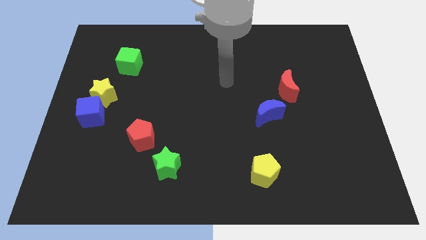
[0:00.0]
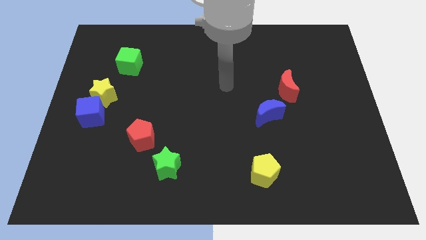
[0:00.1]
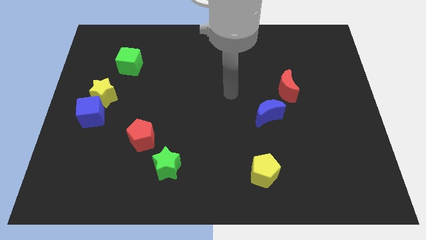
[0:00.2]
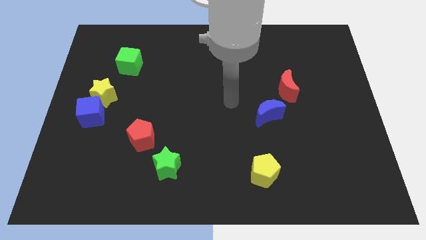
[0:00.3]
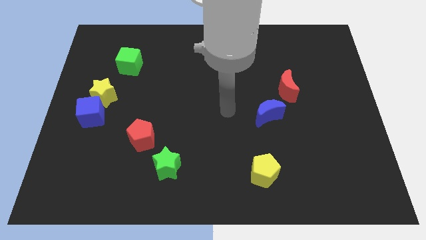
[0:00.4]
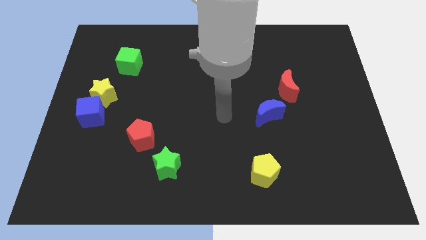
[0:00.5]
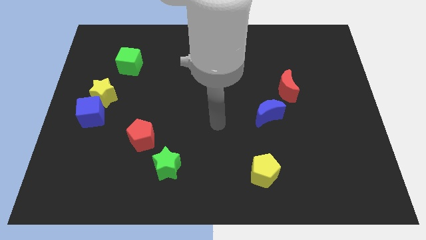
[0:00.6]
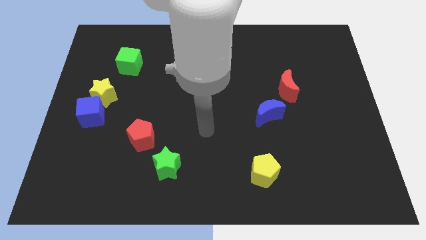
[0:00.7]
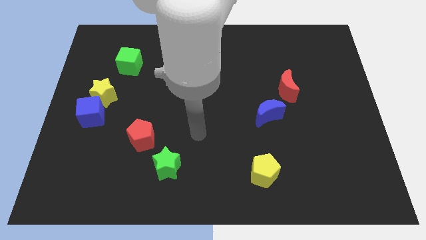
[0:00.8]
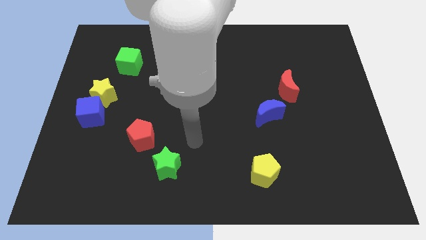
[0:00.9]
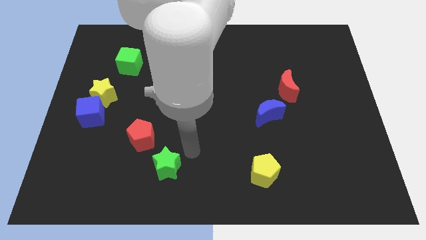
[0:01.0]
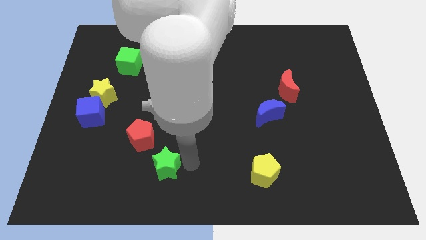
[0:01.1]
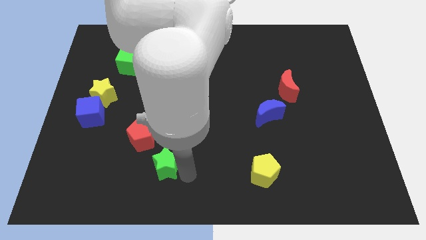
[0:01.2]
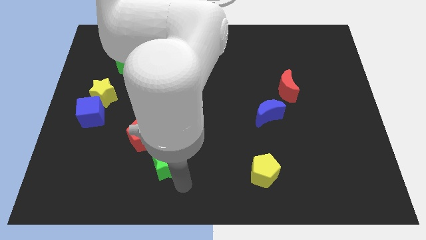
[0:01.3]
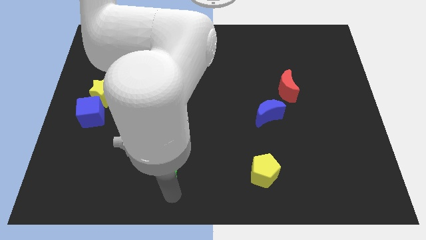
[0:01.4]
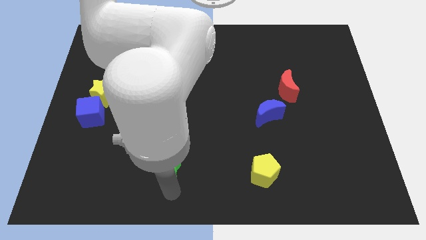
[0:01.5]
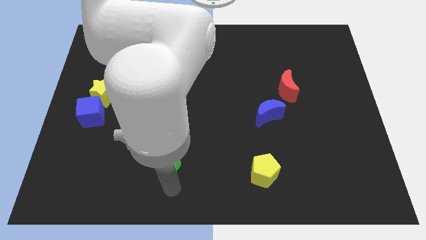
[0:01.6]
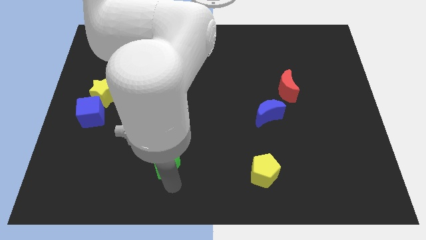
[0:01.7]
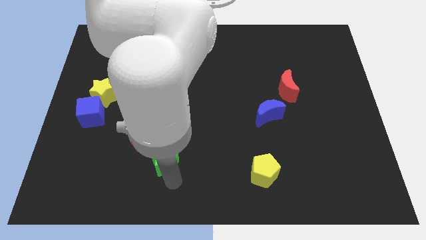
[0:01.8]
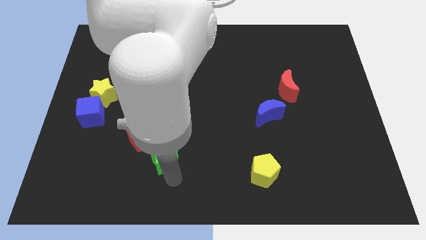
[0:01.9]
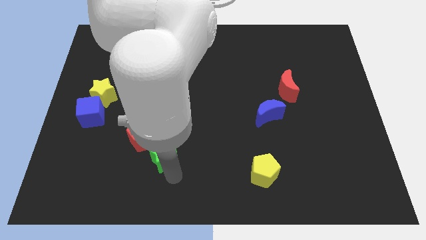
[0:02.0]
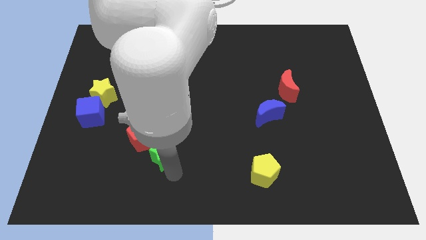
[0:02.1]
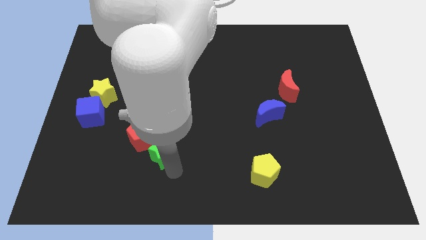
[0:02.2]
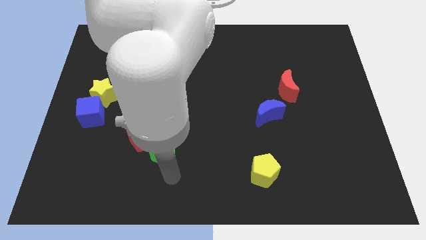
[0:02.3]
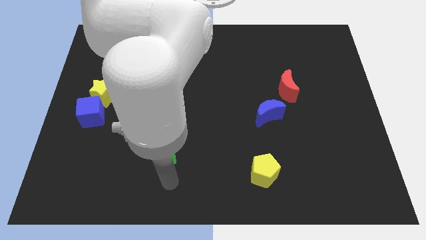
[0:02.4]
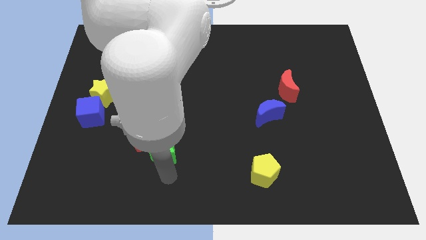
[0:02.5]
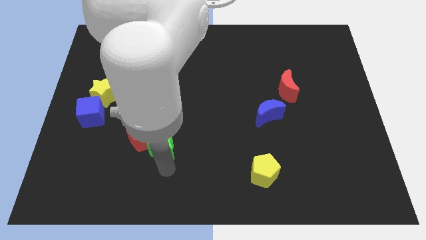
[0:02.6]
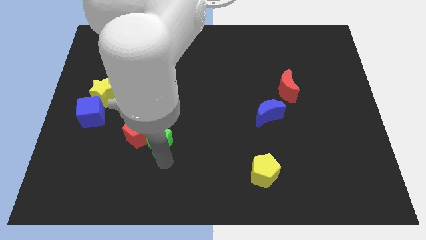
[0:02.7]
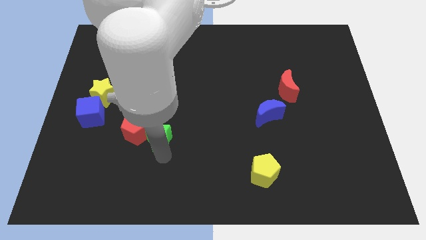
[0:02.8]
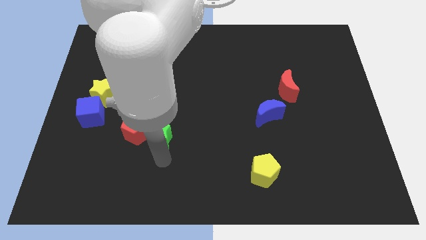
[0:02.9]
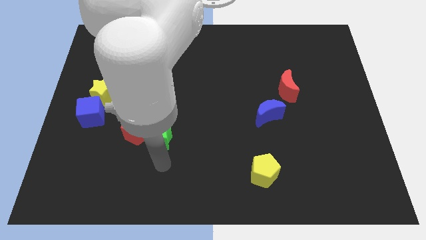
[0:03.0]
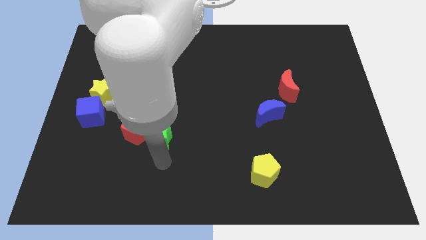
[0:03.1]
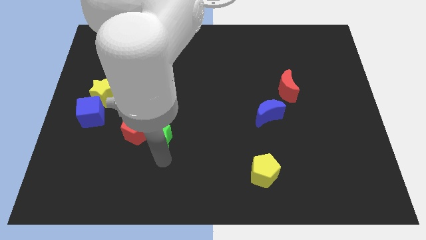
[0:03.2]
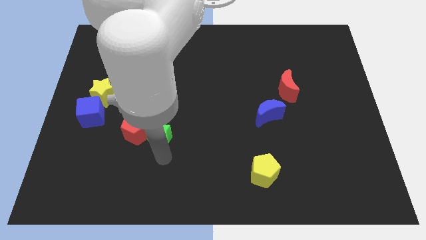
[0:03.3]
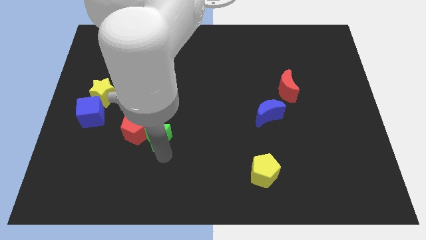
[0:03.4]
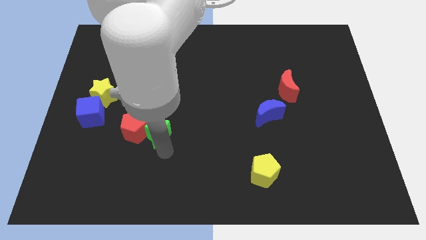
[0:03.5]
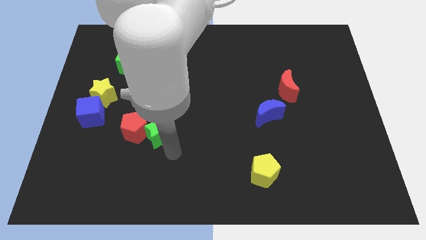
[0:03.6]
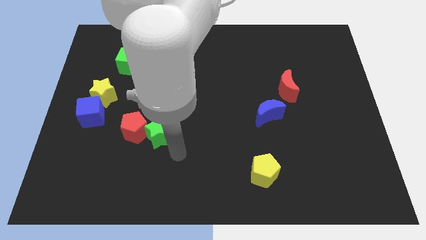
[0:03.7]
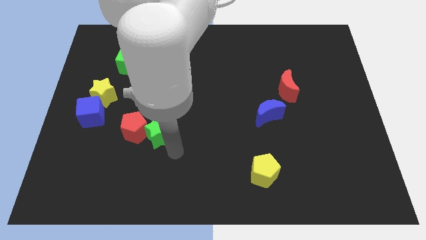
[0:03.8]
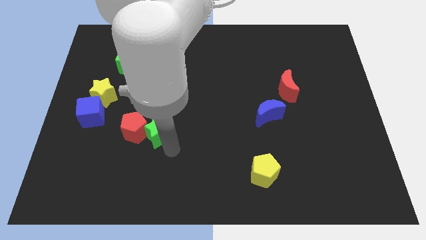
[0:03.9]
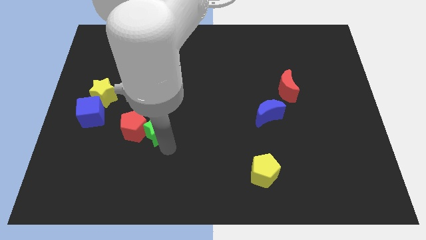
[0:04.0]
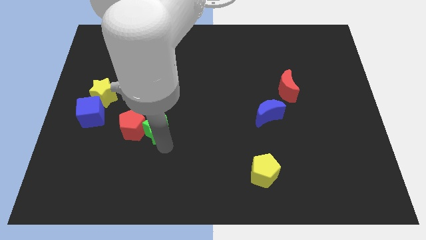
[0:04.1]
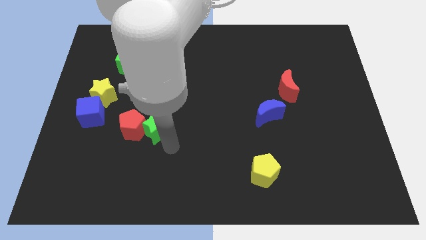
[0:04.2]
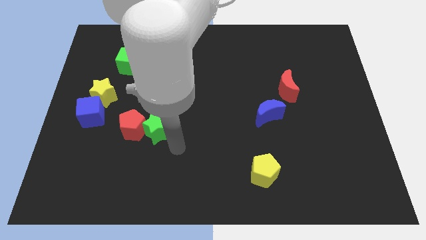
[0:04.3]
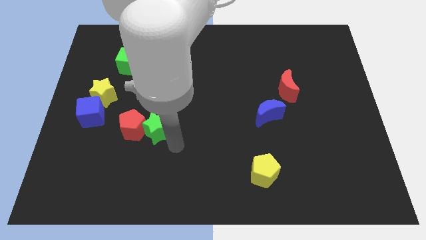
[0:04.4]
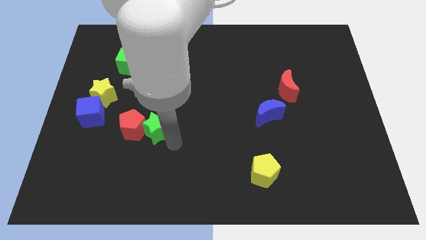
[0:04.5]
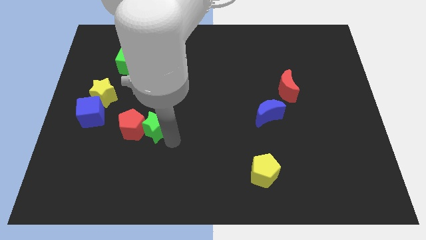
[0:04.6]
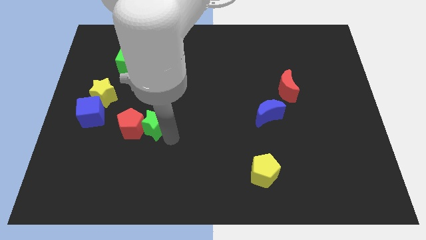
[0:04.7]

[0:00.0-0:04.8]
move the green star just right of the blue cube

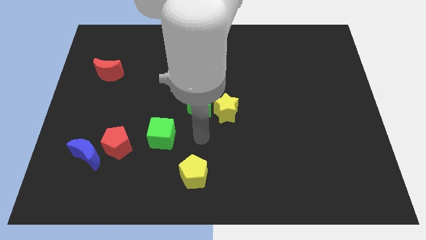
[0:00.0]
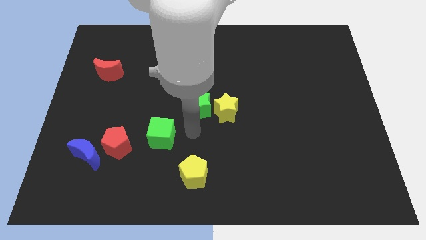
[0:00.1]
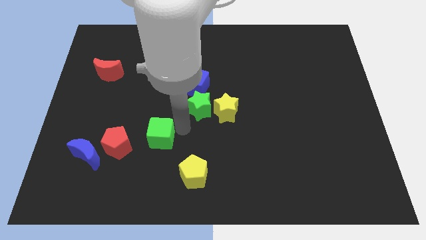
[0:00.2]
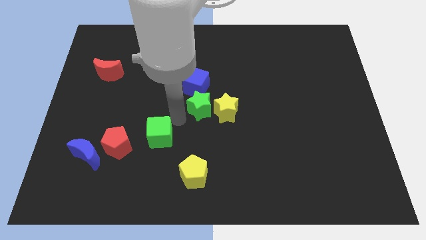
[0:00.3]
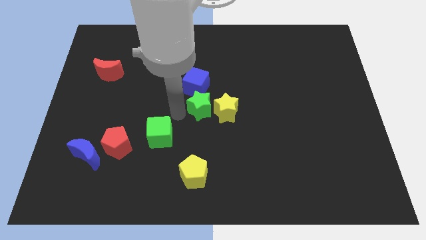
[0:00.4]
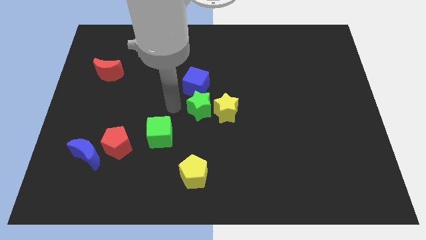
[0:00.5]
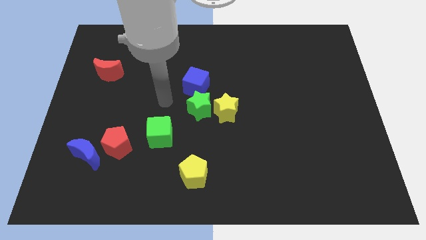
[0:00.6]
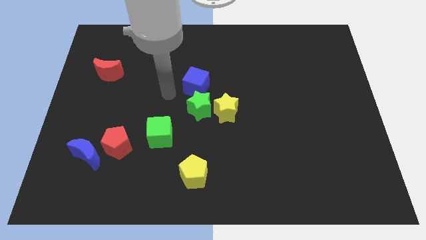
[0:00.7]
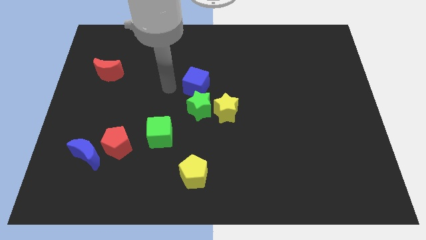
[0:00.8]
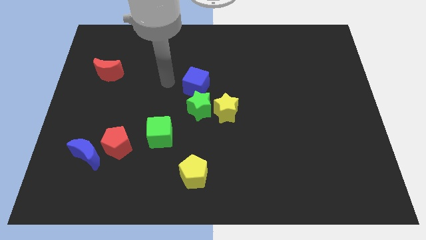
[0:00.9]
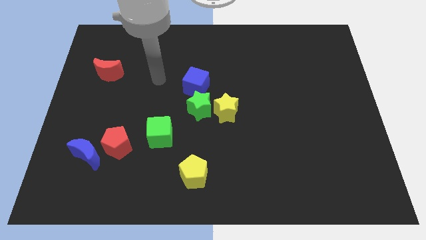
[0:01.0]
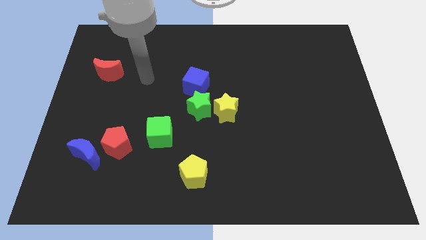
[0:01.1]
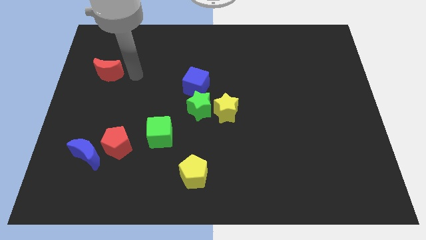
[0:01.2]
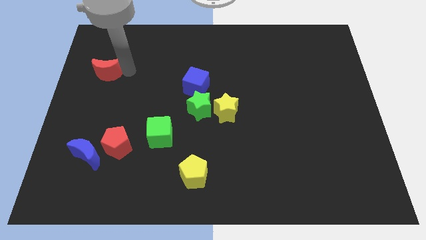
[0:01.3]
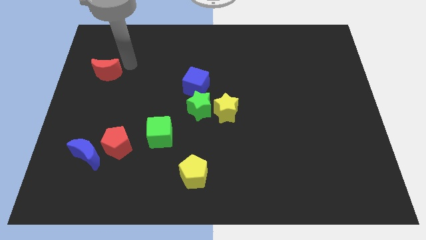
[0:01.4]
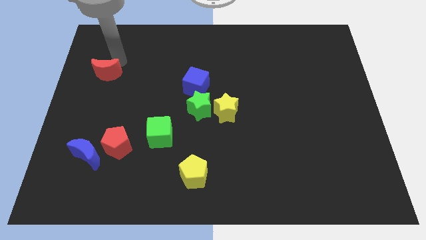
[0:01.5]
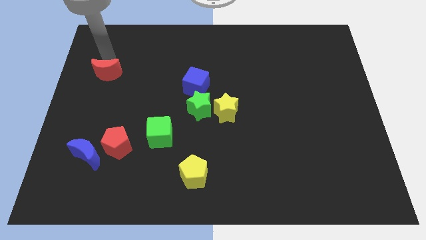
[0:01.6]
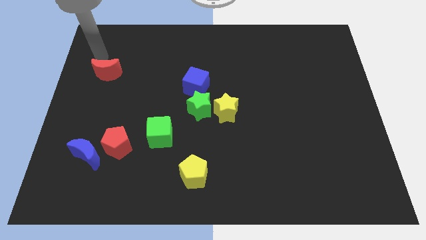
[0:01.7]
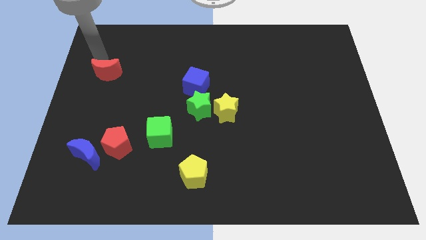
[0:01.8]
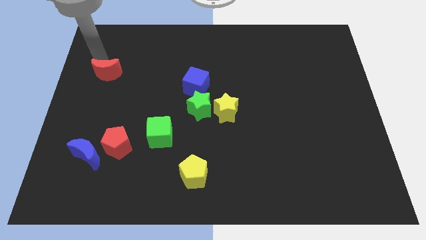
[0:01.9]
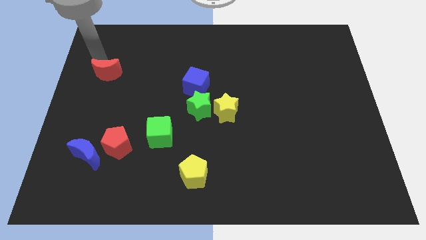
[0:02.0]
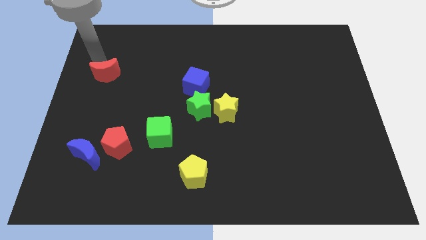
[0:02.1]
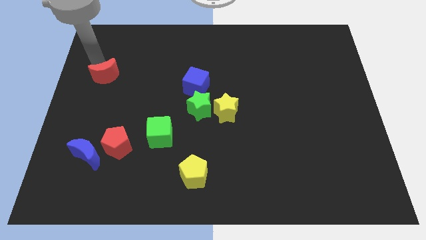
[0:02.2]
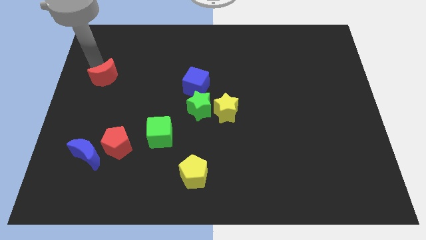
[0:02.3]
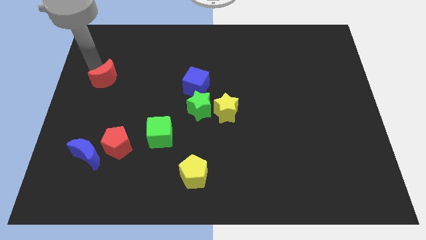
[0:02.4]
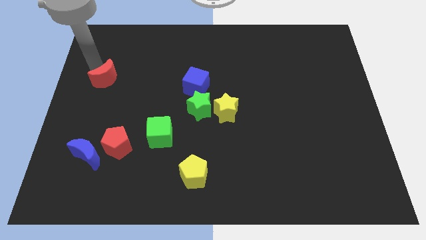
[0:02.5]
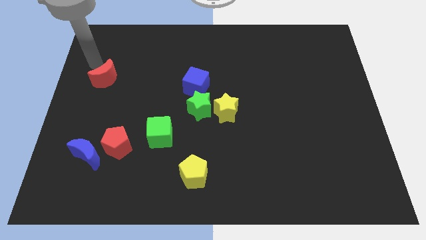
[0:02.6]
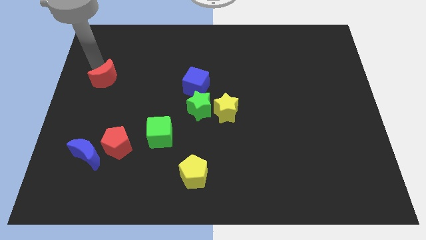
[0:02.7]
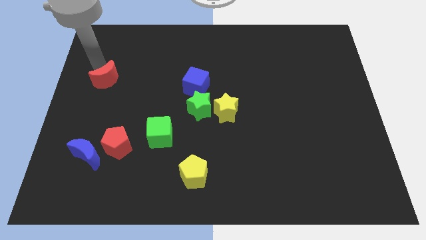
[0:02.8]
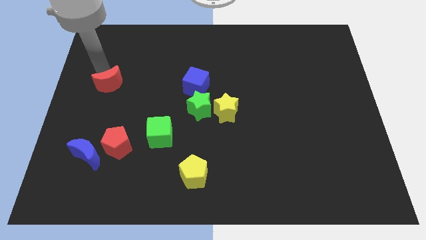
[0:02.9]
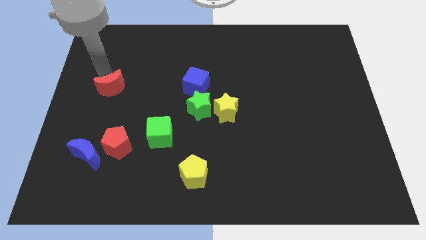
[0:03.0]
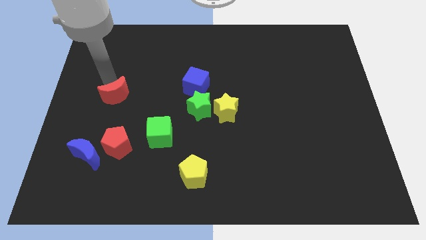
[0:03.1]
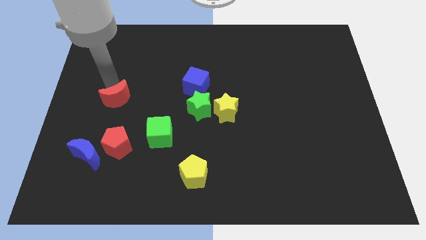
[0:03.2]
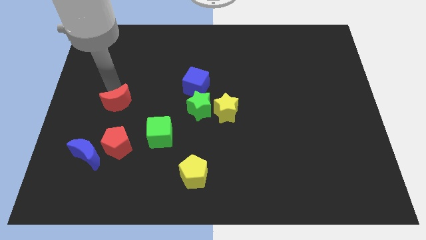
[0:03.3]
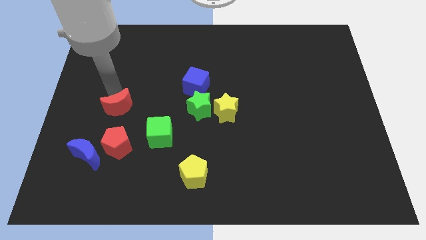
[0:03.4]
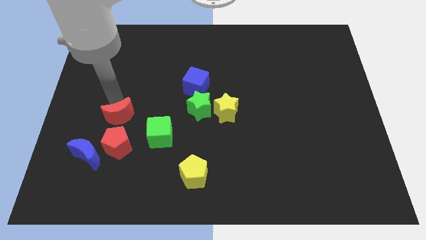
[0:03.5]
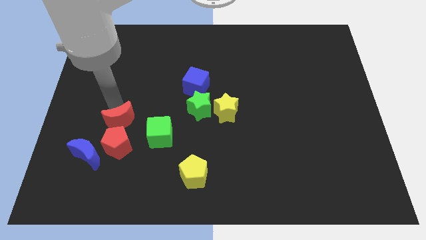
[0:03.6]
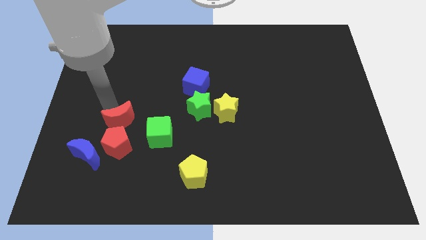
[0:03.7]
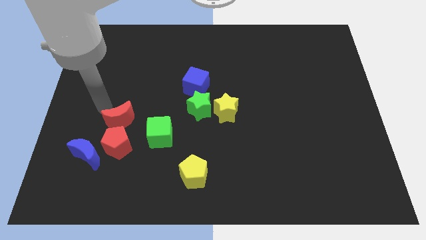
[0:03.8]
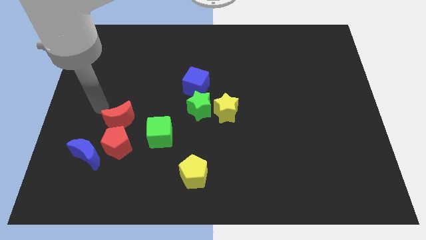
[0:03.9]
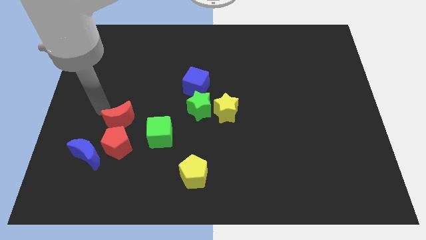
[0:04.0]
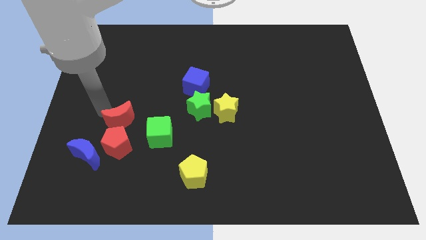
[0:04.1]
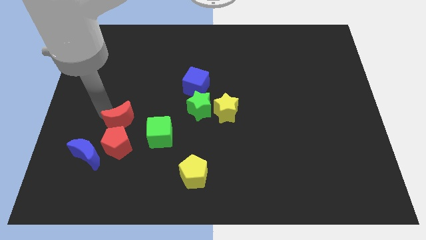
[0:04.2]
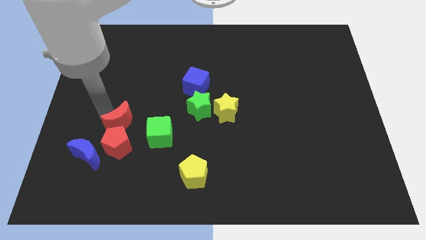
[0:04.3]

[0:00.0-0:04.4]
move the red moon to the top right of the red pentagon
